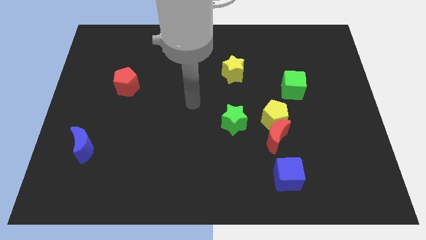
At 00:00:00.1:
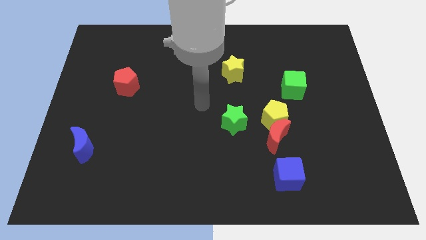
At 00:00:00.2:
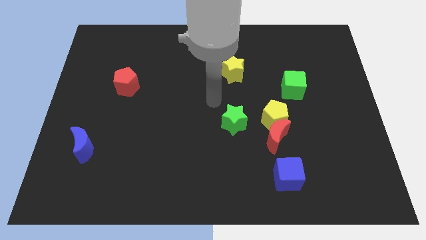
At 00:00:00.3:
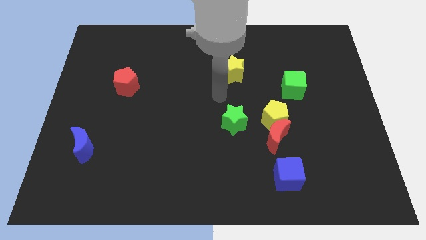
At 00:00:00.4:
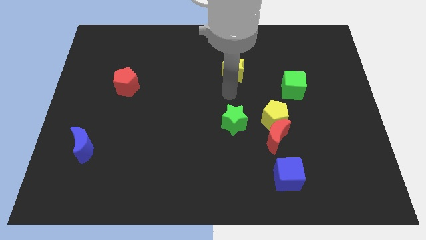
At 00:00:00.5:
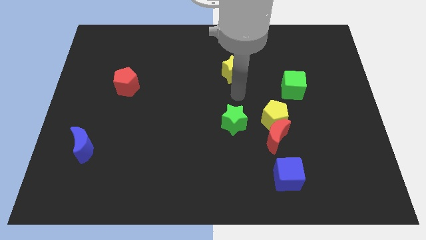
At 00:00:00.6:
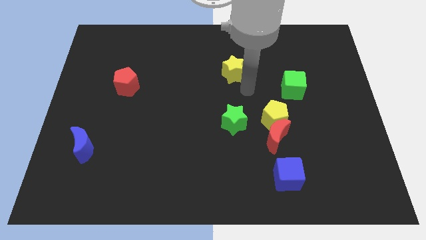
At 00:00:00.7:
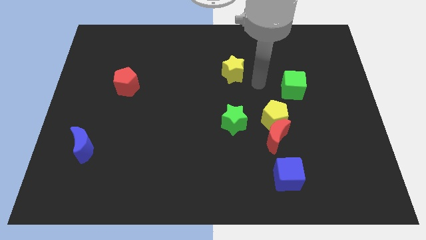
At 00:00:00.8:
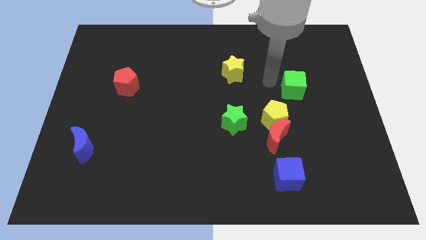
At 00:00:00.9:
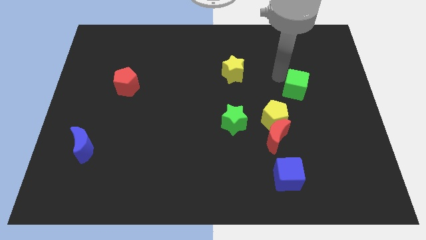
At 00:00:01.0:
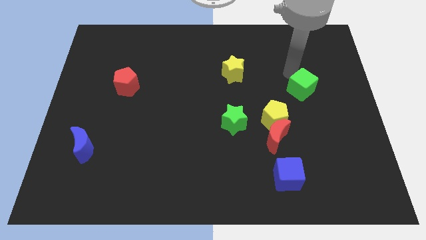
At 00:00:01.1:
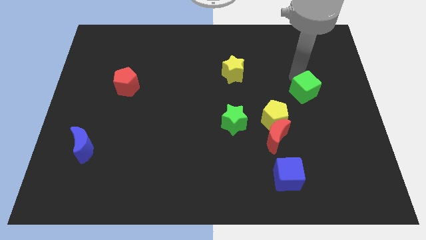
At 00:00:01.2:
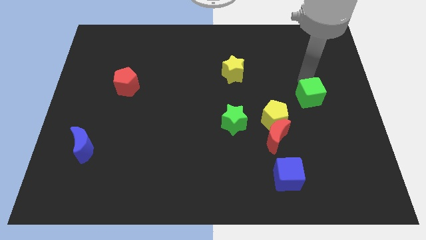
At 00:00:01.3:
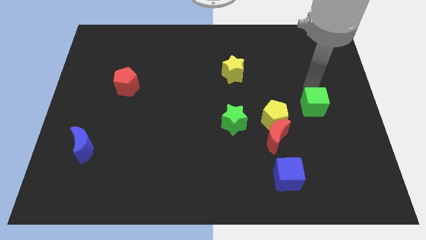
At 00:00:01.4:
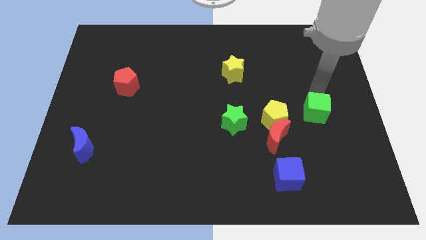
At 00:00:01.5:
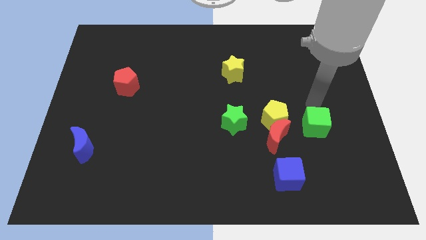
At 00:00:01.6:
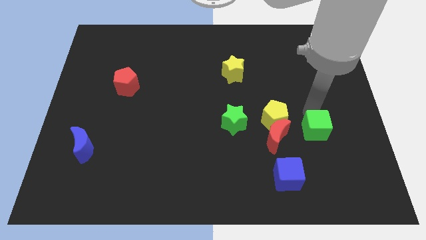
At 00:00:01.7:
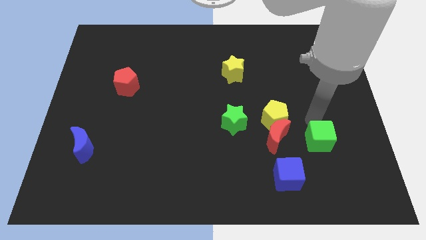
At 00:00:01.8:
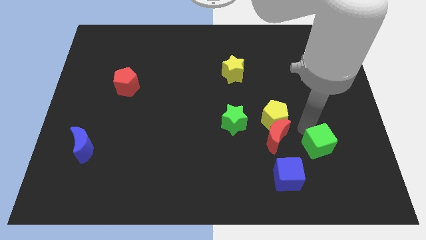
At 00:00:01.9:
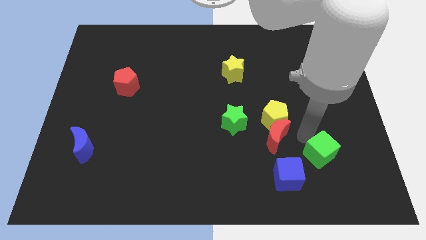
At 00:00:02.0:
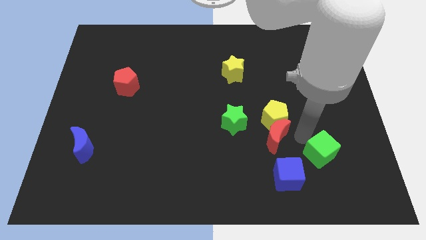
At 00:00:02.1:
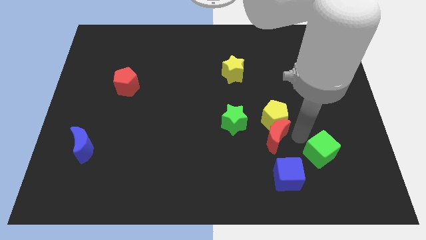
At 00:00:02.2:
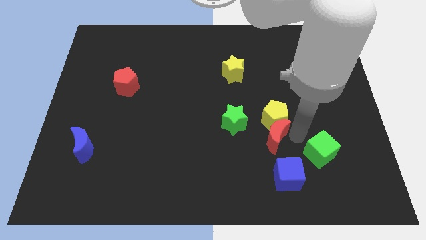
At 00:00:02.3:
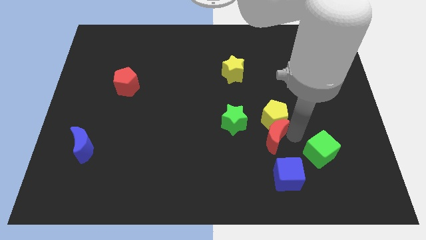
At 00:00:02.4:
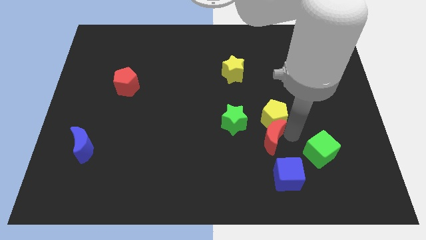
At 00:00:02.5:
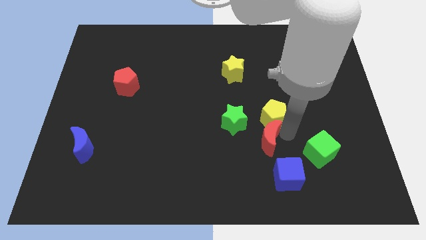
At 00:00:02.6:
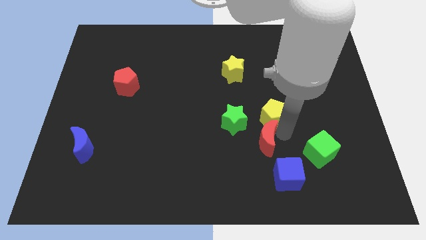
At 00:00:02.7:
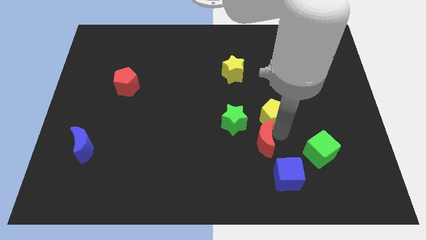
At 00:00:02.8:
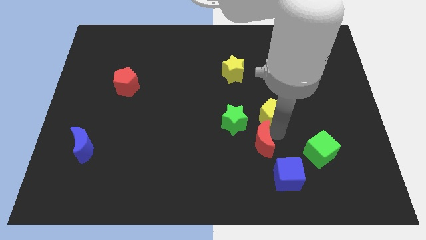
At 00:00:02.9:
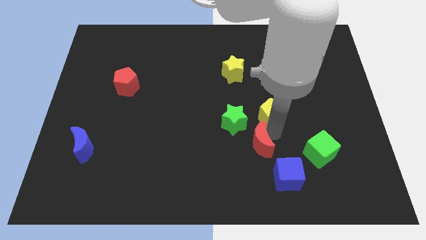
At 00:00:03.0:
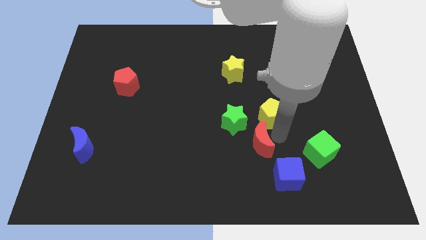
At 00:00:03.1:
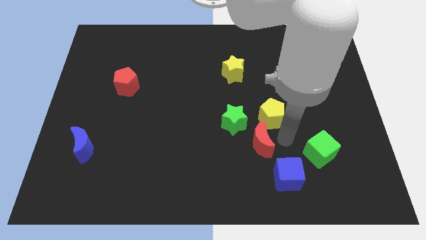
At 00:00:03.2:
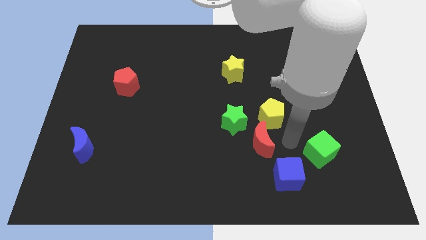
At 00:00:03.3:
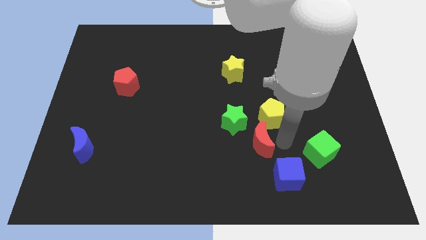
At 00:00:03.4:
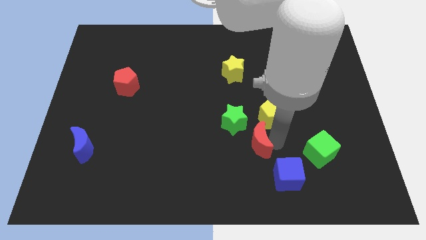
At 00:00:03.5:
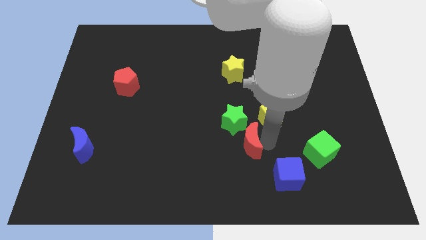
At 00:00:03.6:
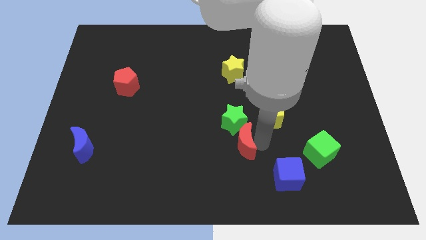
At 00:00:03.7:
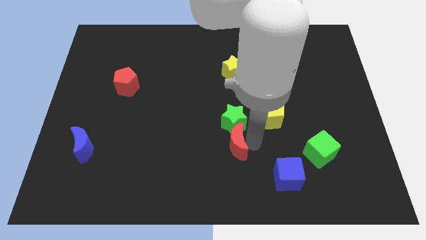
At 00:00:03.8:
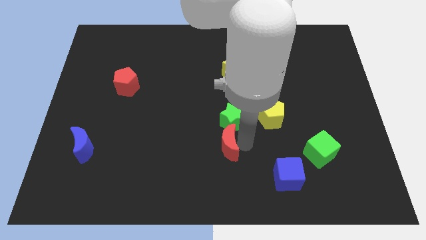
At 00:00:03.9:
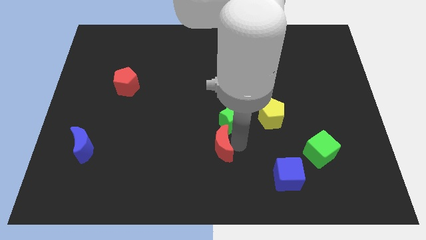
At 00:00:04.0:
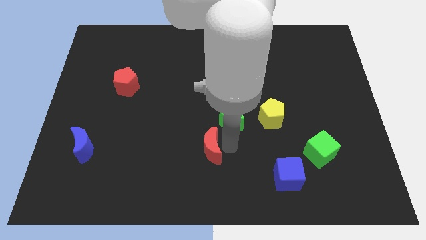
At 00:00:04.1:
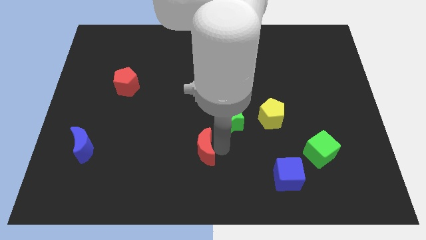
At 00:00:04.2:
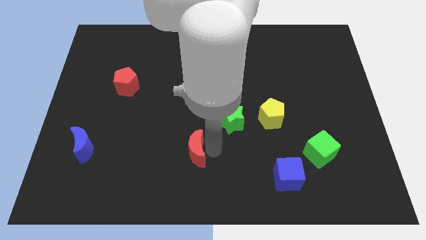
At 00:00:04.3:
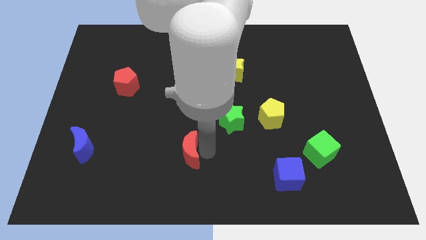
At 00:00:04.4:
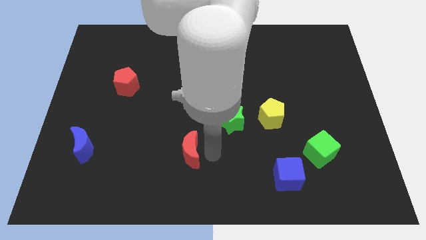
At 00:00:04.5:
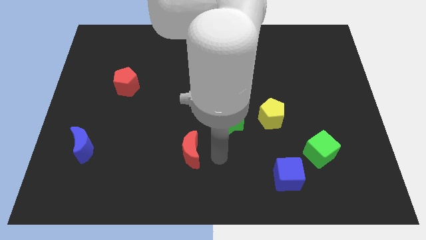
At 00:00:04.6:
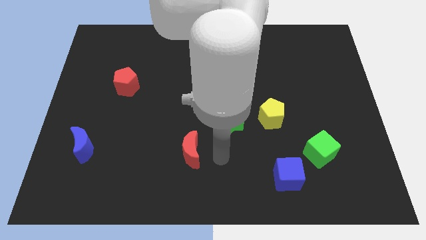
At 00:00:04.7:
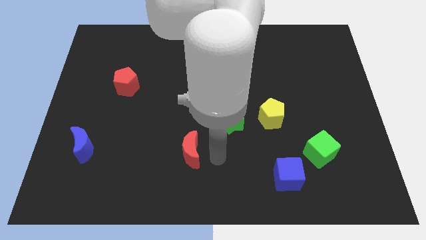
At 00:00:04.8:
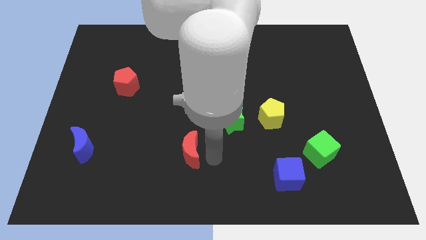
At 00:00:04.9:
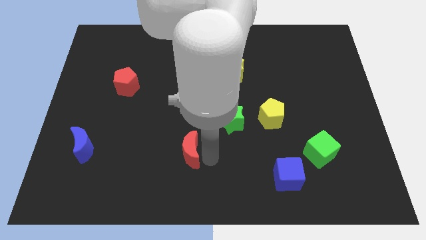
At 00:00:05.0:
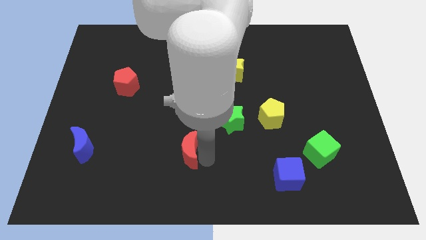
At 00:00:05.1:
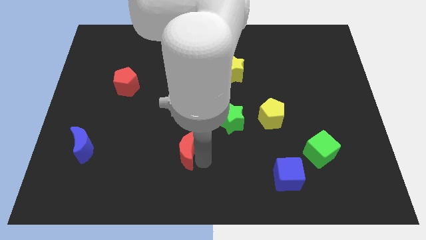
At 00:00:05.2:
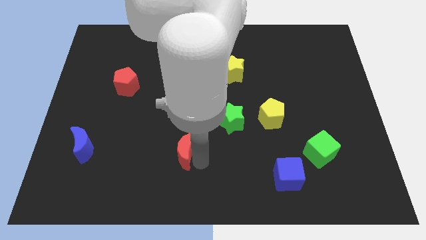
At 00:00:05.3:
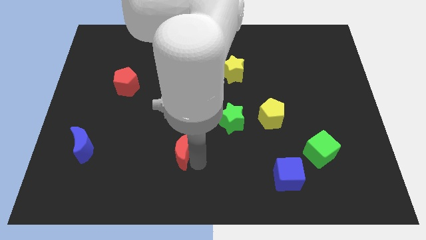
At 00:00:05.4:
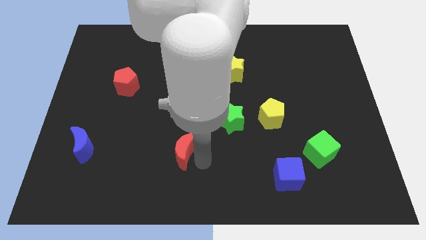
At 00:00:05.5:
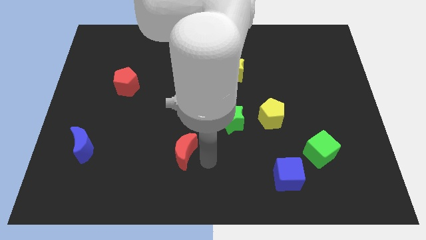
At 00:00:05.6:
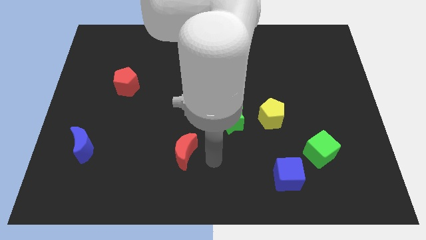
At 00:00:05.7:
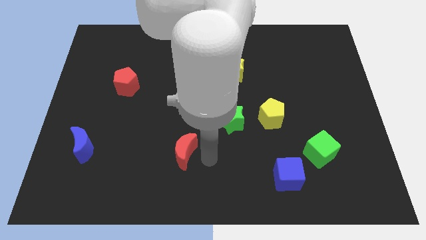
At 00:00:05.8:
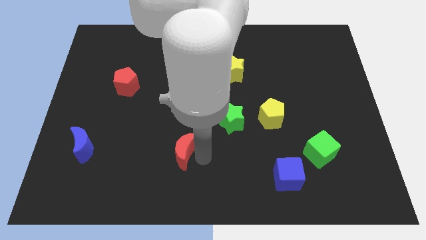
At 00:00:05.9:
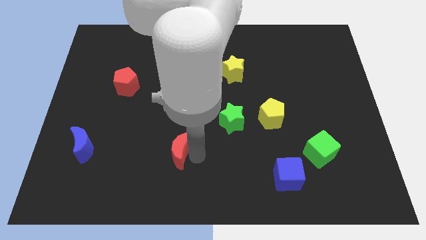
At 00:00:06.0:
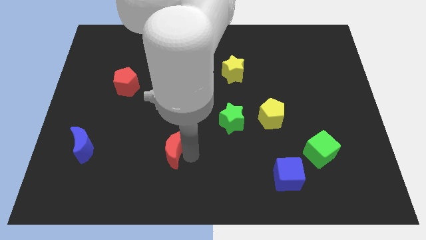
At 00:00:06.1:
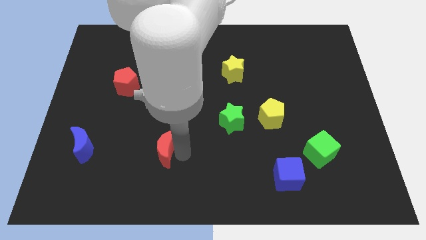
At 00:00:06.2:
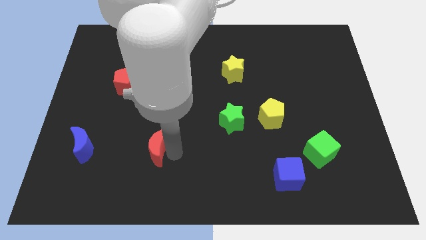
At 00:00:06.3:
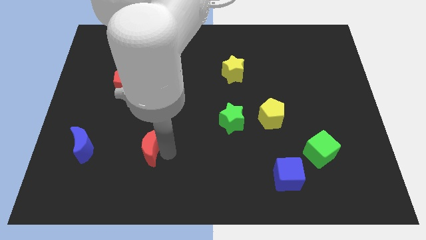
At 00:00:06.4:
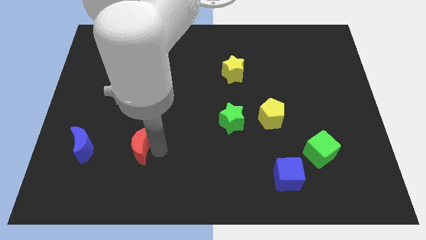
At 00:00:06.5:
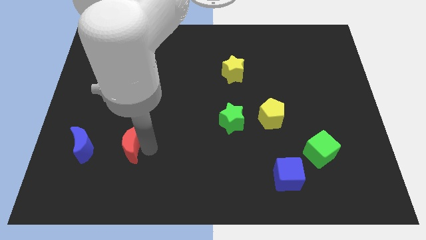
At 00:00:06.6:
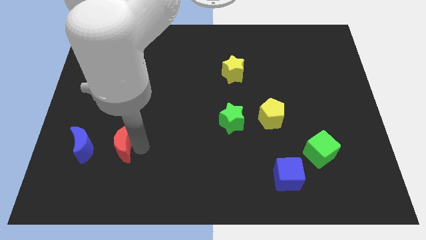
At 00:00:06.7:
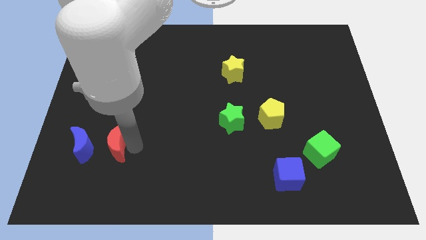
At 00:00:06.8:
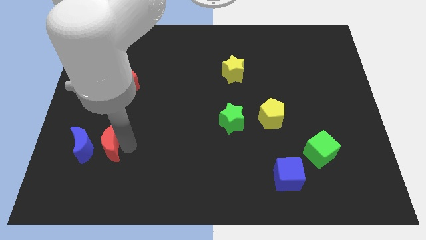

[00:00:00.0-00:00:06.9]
put the red moon to the blue moon

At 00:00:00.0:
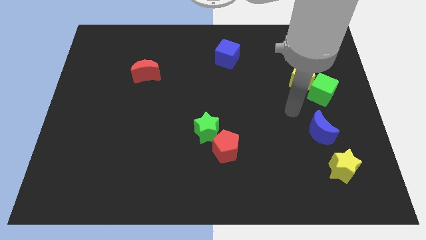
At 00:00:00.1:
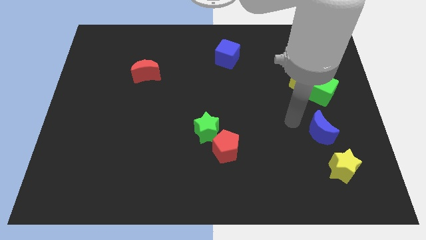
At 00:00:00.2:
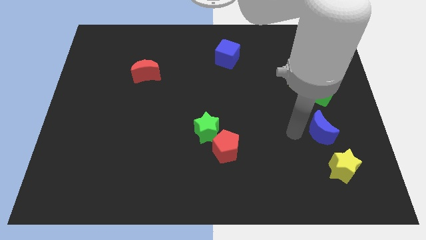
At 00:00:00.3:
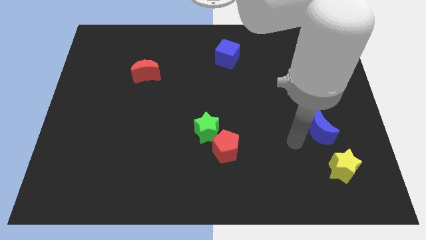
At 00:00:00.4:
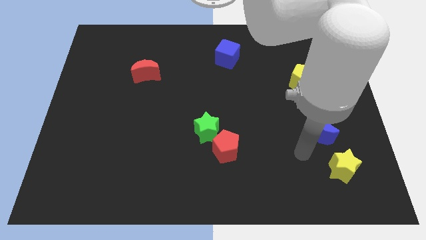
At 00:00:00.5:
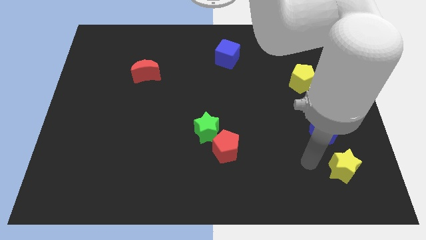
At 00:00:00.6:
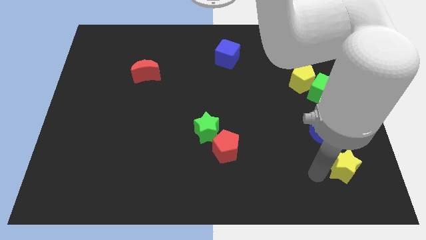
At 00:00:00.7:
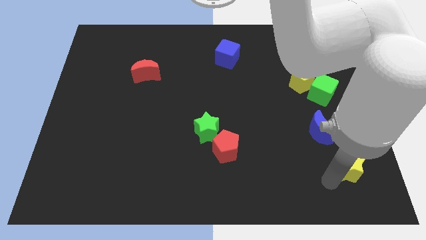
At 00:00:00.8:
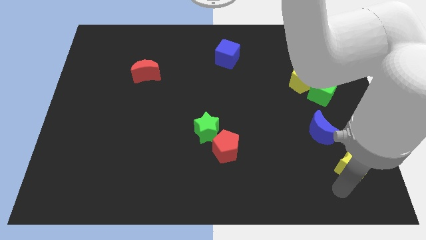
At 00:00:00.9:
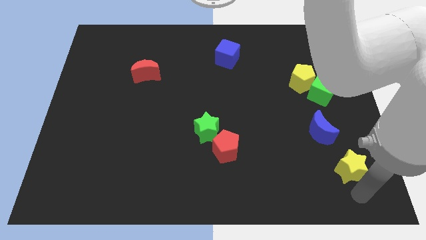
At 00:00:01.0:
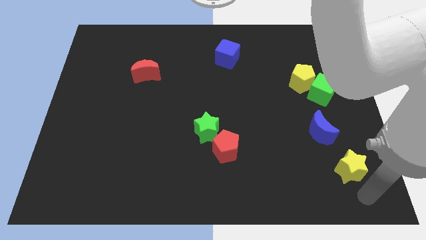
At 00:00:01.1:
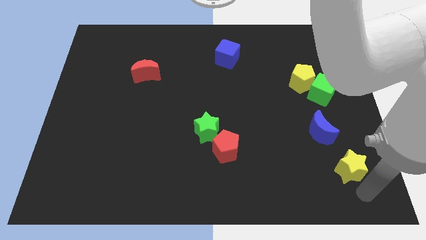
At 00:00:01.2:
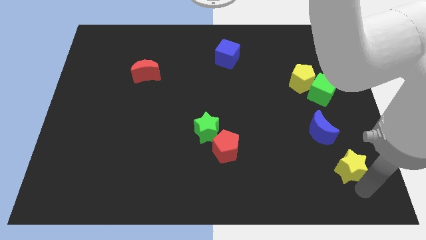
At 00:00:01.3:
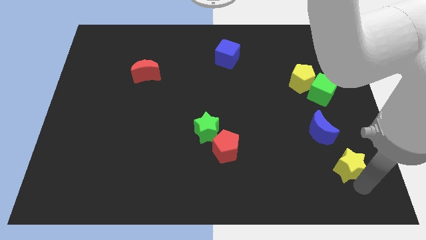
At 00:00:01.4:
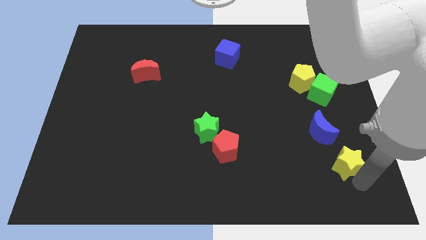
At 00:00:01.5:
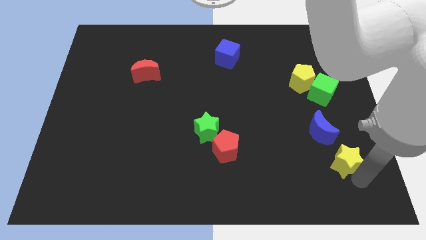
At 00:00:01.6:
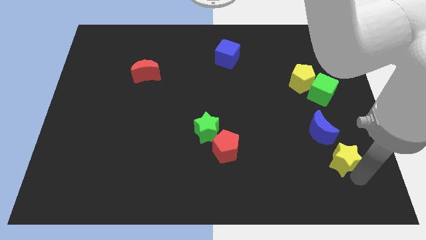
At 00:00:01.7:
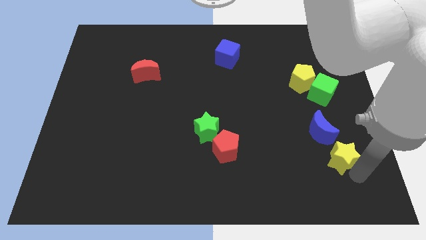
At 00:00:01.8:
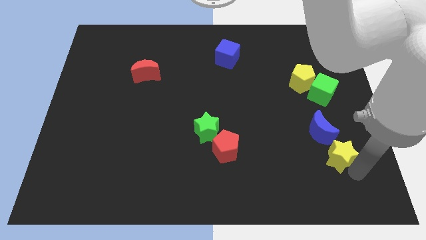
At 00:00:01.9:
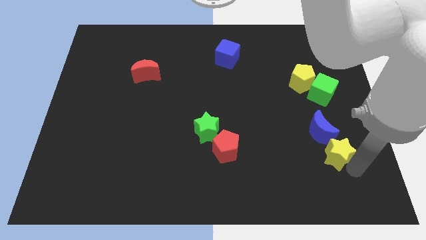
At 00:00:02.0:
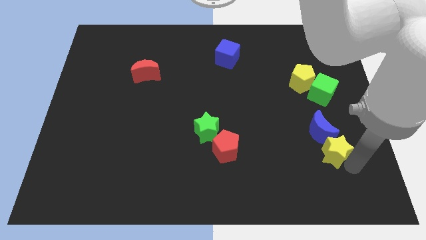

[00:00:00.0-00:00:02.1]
slide the yellow star close to the blue moon
